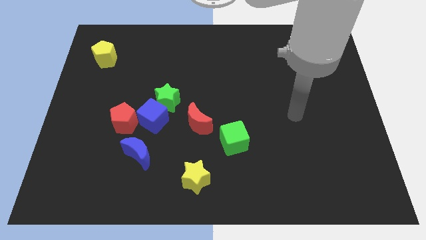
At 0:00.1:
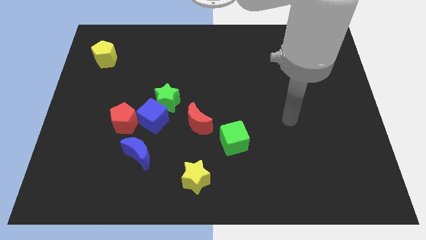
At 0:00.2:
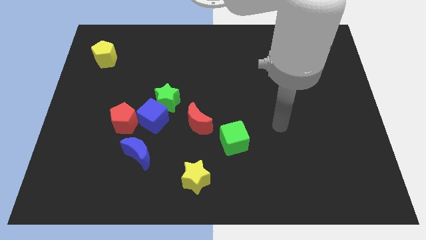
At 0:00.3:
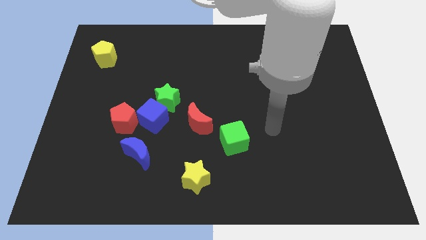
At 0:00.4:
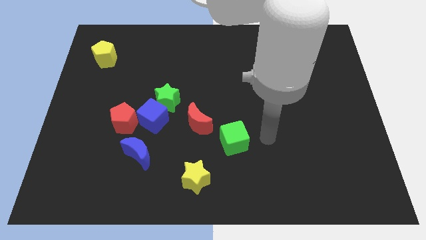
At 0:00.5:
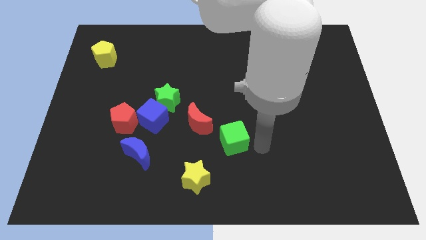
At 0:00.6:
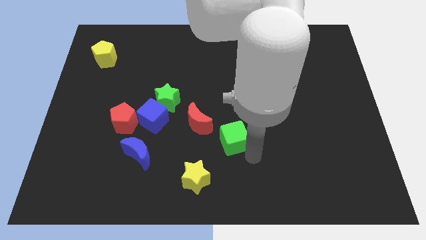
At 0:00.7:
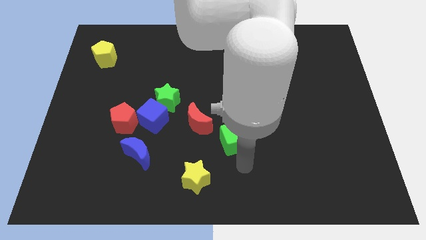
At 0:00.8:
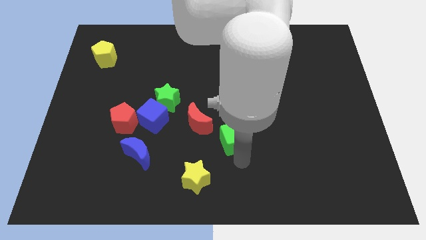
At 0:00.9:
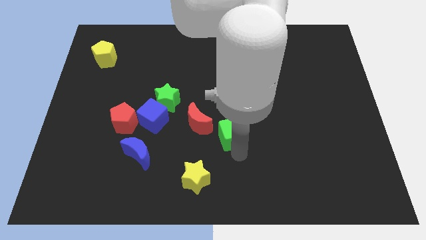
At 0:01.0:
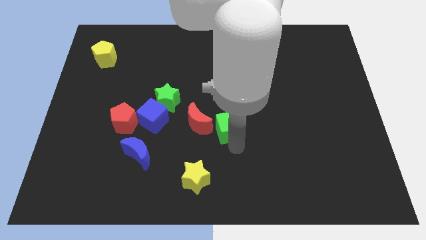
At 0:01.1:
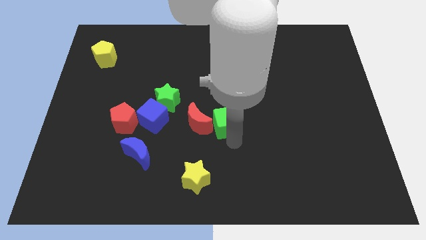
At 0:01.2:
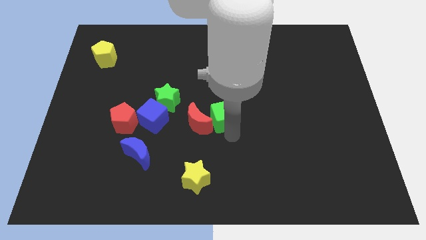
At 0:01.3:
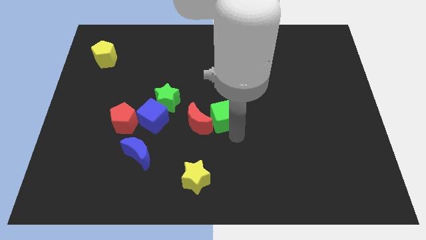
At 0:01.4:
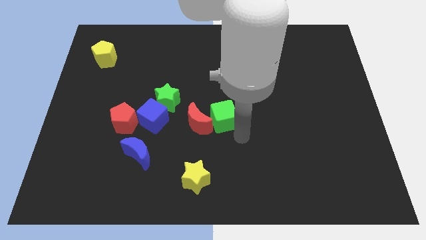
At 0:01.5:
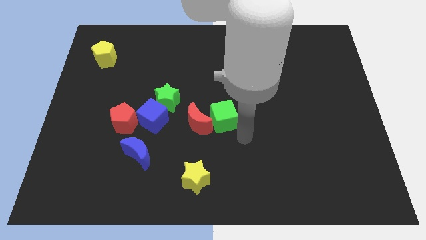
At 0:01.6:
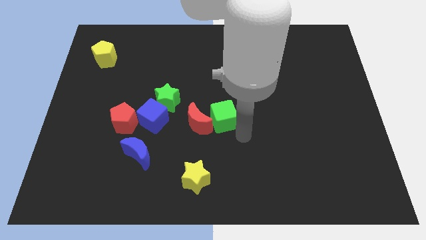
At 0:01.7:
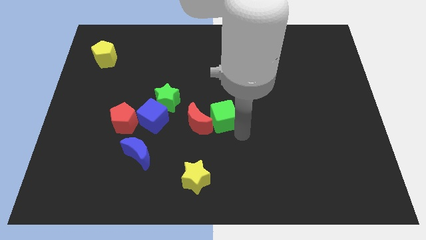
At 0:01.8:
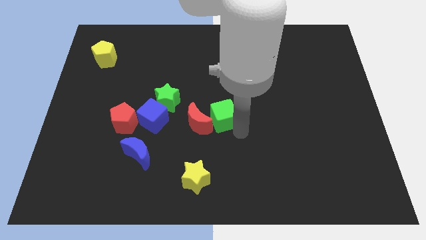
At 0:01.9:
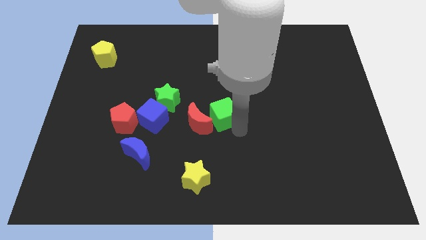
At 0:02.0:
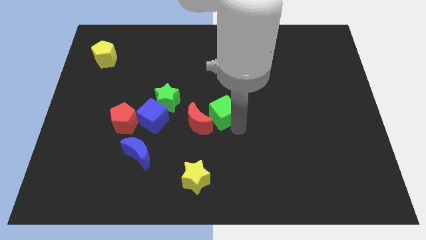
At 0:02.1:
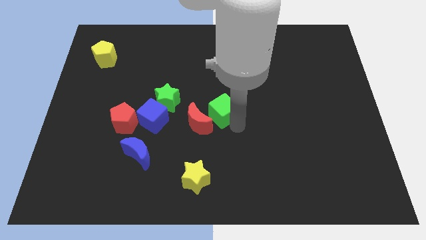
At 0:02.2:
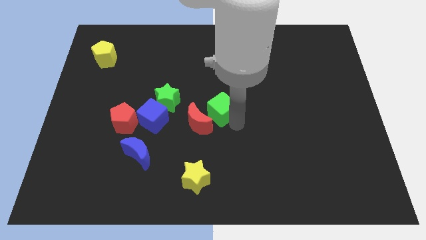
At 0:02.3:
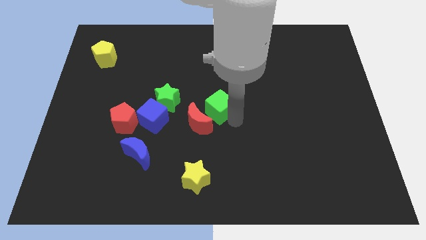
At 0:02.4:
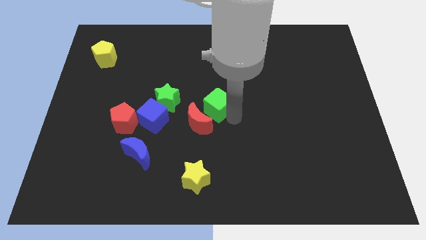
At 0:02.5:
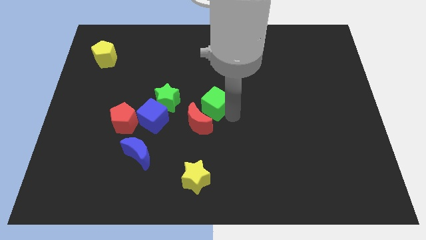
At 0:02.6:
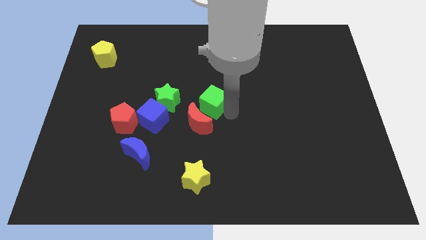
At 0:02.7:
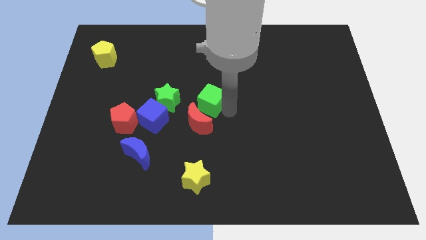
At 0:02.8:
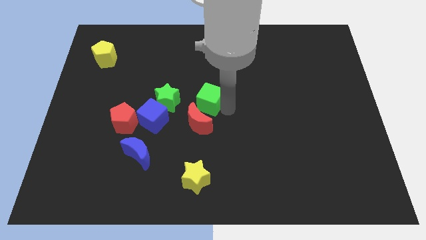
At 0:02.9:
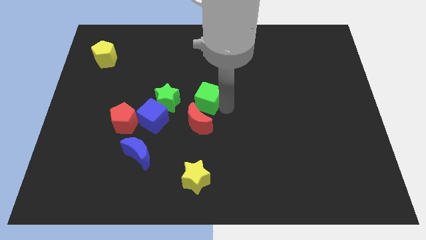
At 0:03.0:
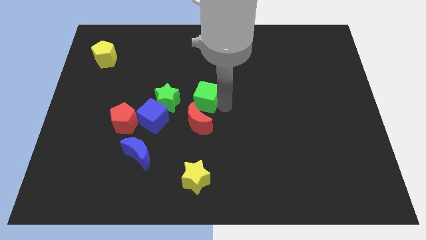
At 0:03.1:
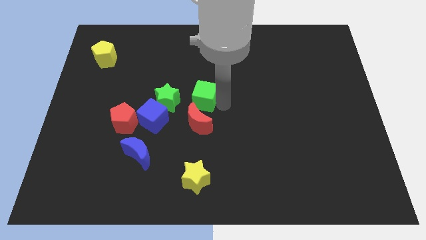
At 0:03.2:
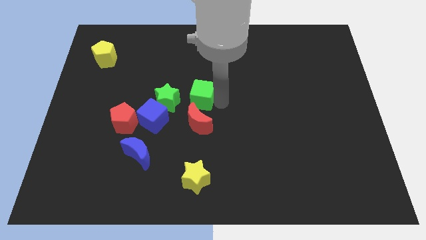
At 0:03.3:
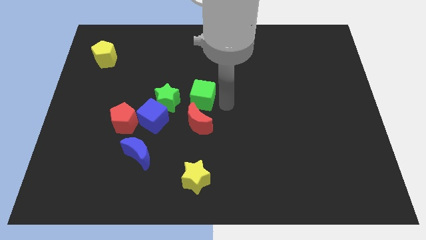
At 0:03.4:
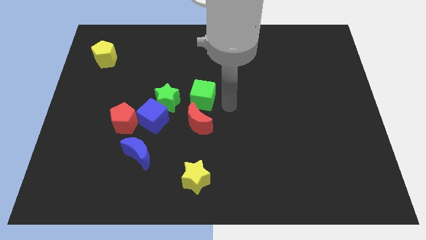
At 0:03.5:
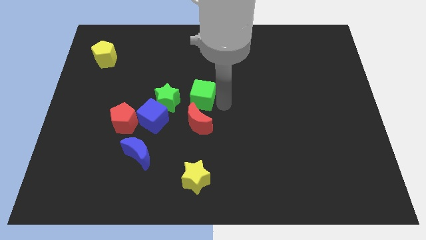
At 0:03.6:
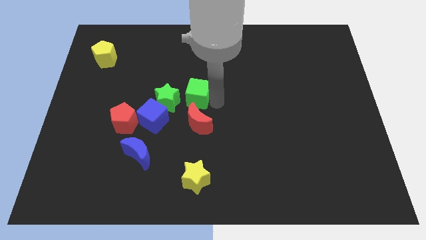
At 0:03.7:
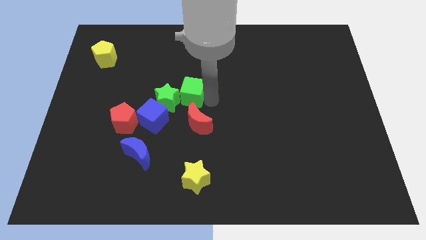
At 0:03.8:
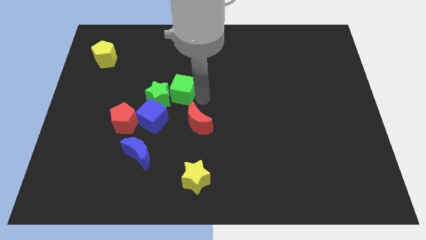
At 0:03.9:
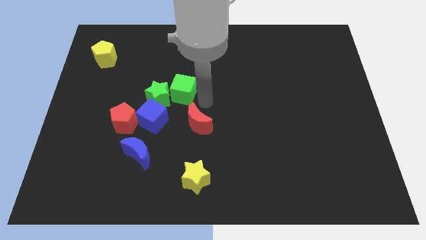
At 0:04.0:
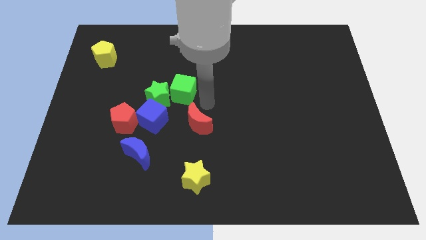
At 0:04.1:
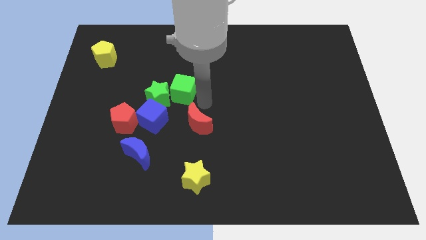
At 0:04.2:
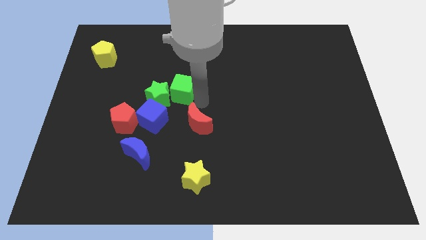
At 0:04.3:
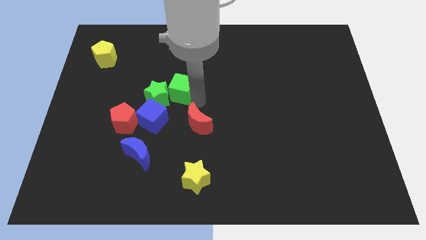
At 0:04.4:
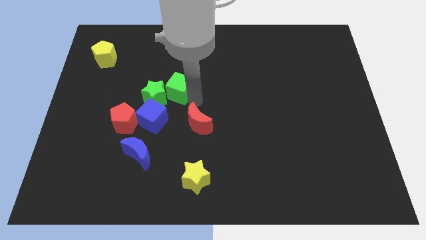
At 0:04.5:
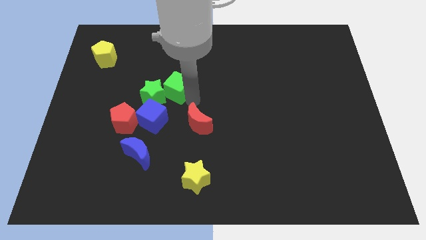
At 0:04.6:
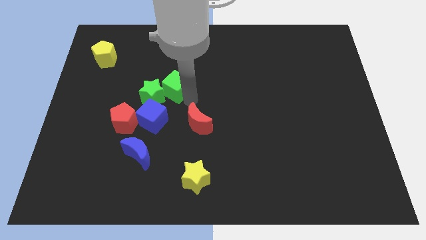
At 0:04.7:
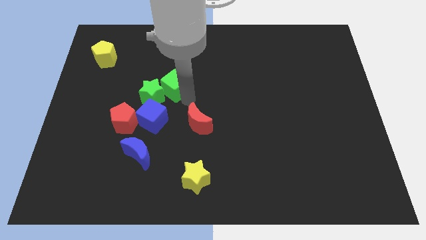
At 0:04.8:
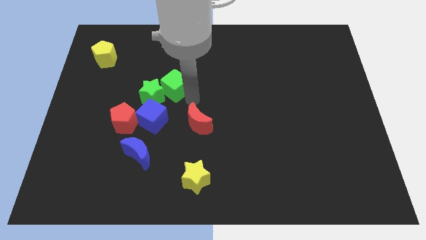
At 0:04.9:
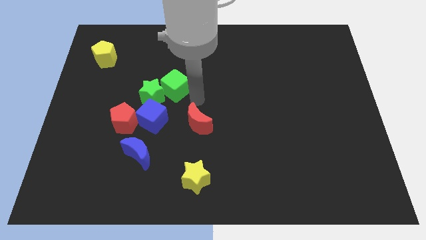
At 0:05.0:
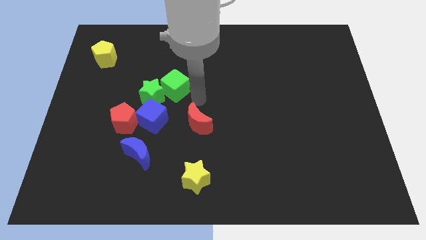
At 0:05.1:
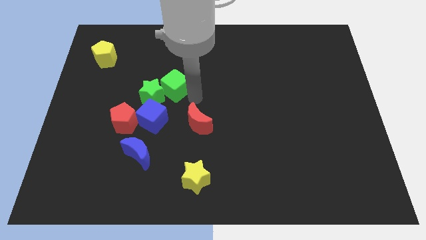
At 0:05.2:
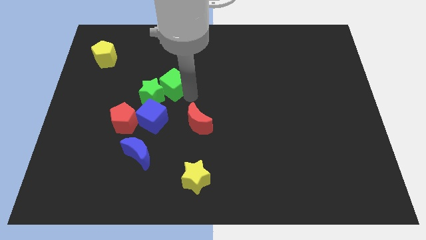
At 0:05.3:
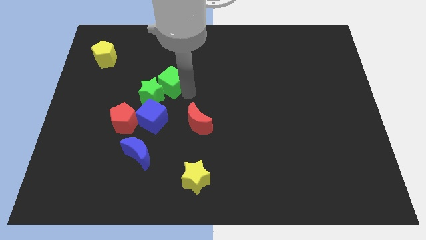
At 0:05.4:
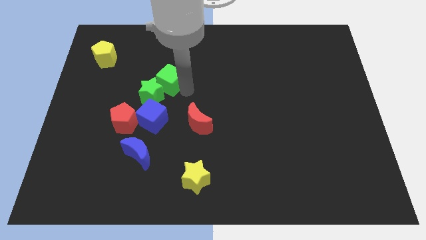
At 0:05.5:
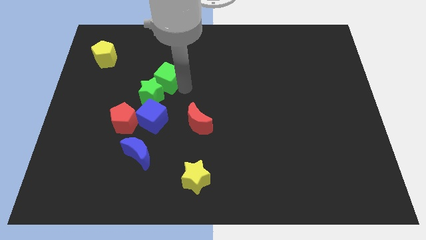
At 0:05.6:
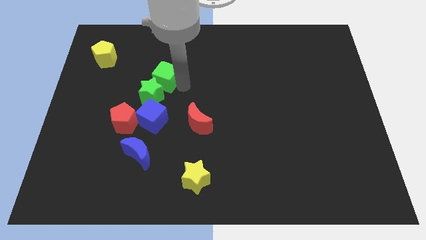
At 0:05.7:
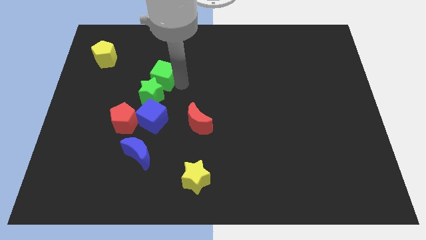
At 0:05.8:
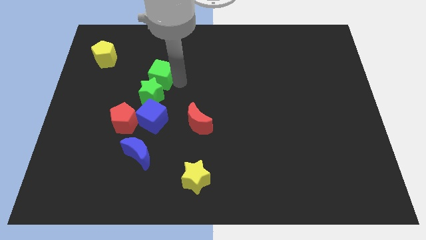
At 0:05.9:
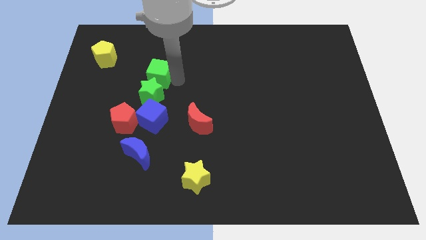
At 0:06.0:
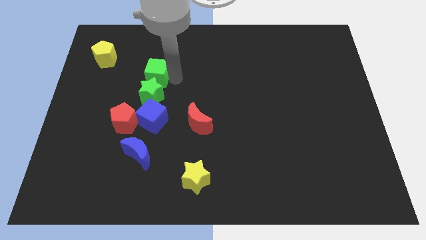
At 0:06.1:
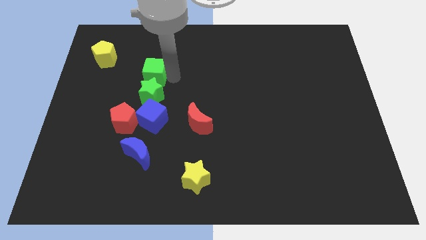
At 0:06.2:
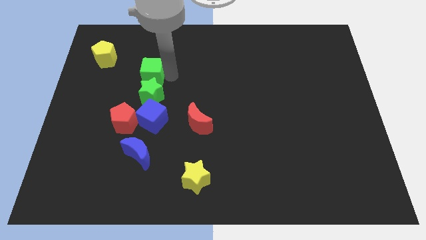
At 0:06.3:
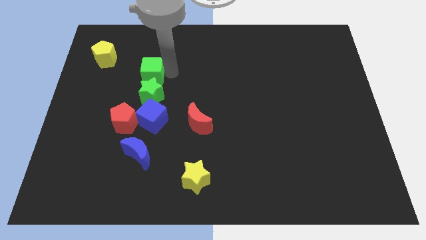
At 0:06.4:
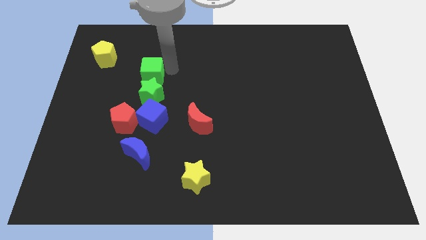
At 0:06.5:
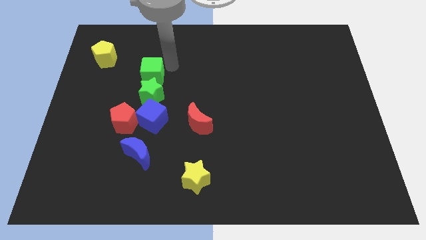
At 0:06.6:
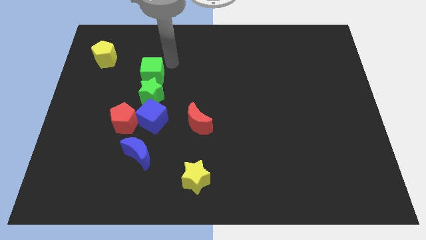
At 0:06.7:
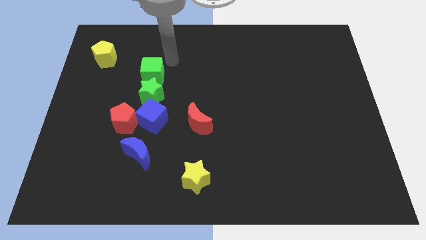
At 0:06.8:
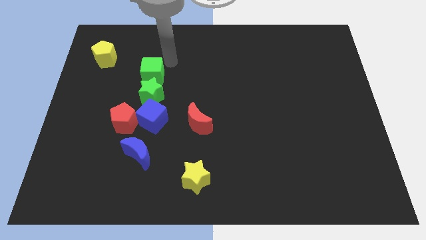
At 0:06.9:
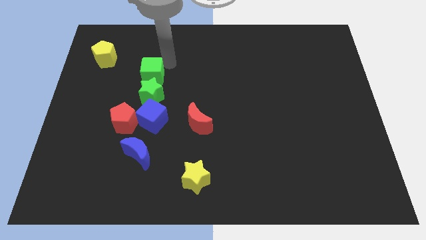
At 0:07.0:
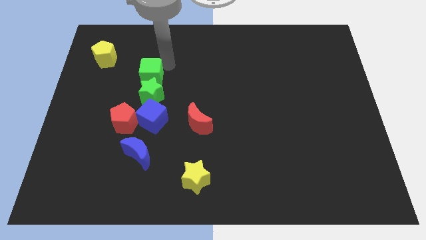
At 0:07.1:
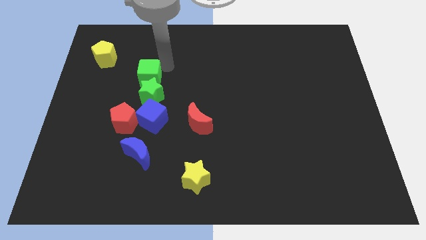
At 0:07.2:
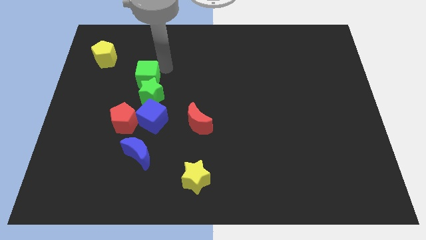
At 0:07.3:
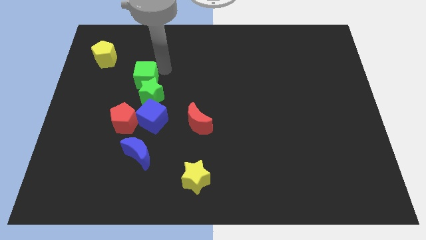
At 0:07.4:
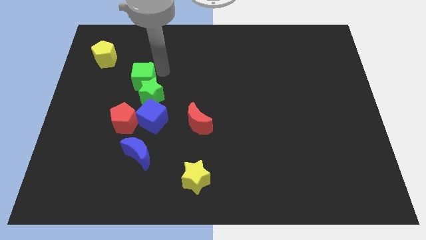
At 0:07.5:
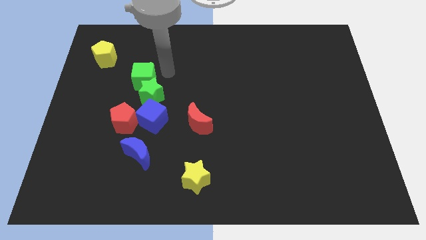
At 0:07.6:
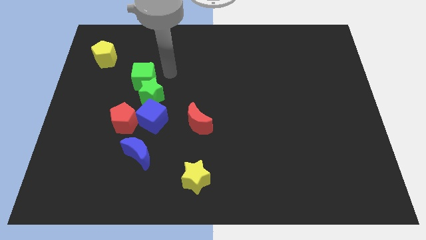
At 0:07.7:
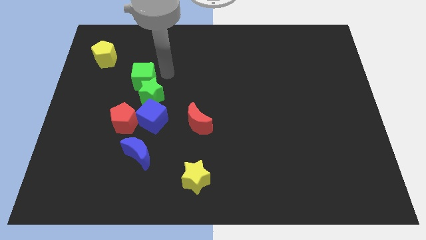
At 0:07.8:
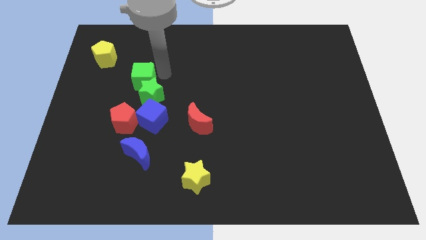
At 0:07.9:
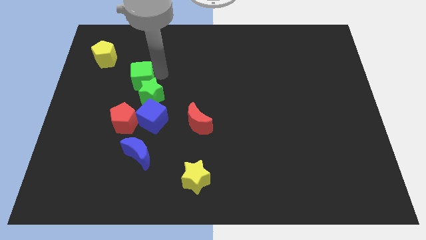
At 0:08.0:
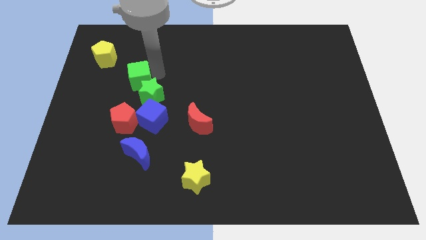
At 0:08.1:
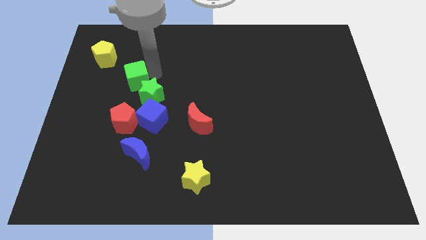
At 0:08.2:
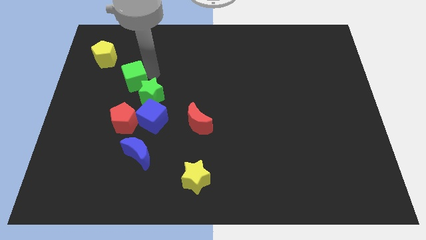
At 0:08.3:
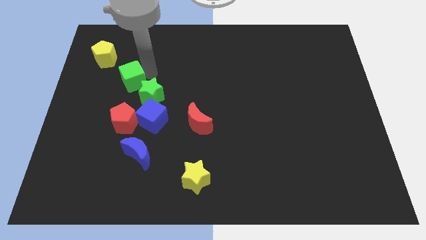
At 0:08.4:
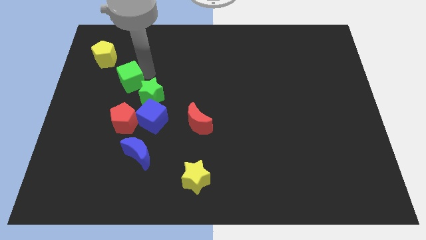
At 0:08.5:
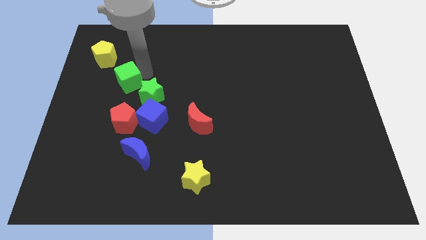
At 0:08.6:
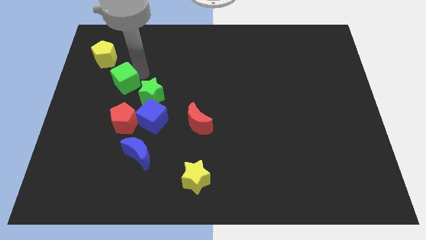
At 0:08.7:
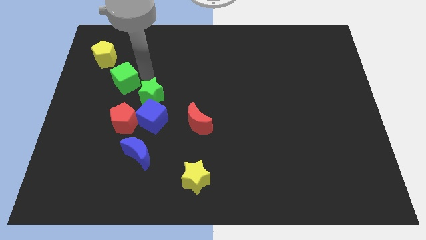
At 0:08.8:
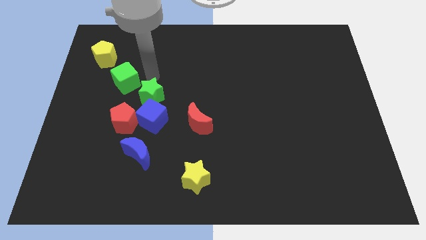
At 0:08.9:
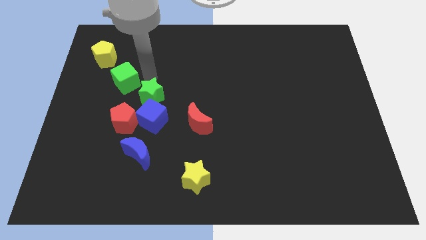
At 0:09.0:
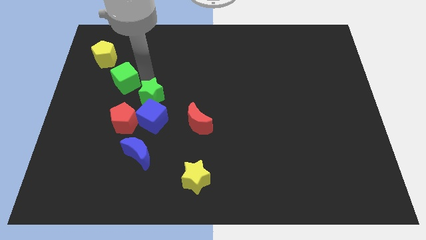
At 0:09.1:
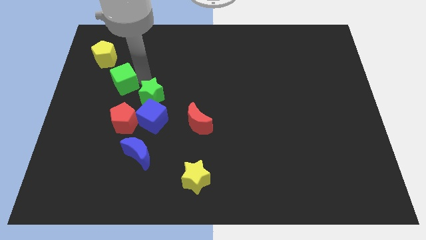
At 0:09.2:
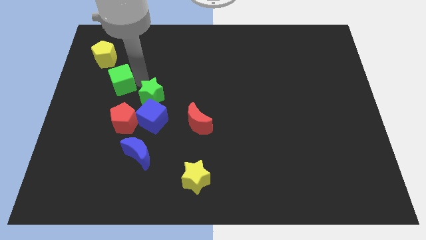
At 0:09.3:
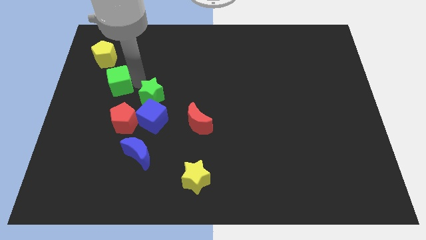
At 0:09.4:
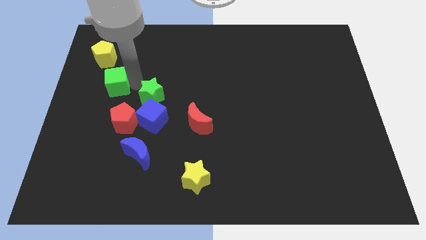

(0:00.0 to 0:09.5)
push the green cube to the bottom of the yellow pentagon
